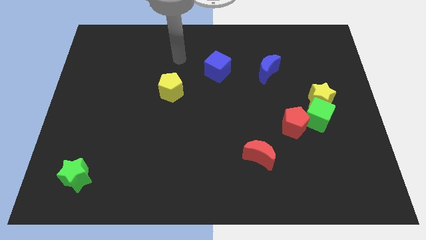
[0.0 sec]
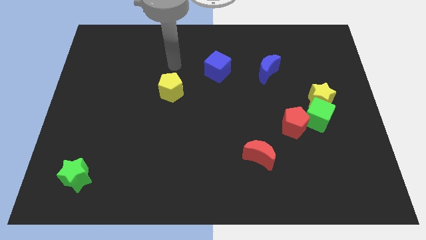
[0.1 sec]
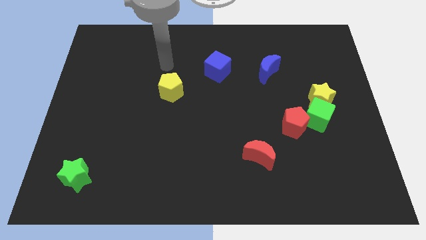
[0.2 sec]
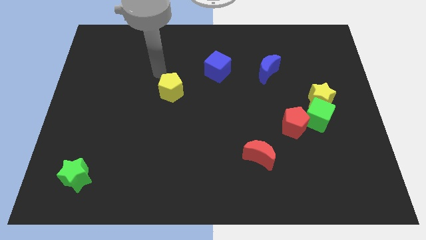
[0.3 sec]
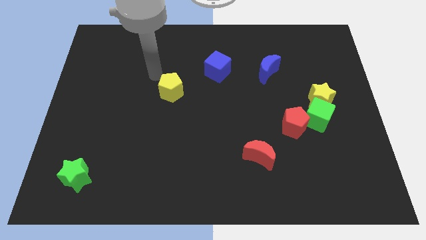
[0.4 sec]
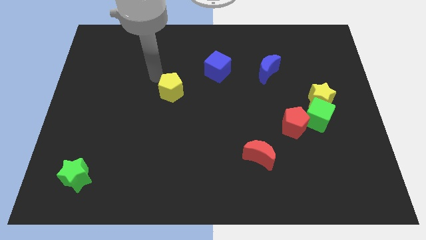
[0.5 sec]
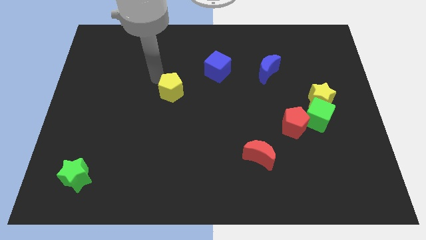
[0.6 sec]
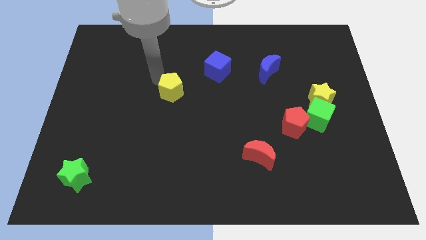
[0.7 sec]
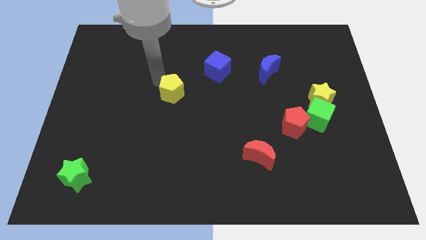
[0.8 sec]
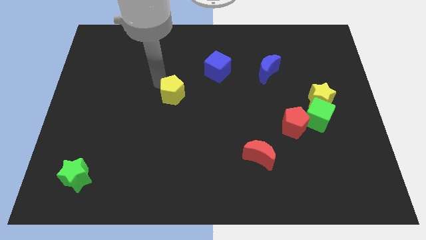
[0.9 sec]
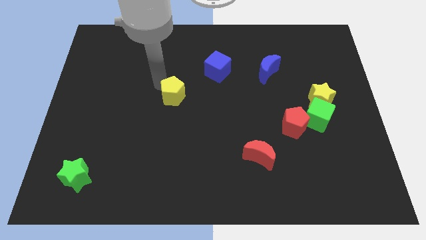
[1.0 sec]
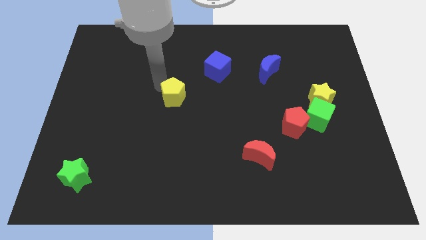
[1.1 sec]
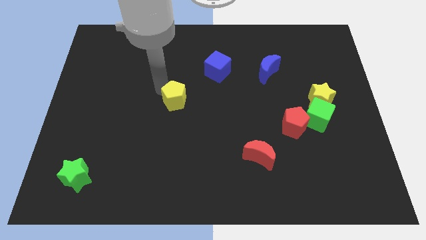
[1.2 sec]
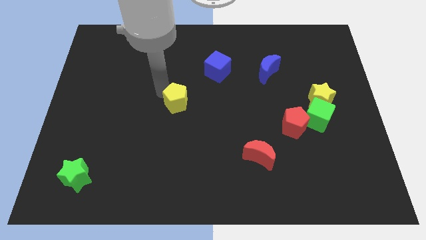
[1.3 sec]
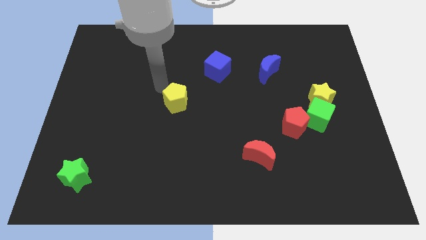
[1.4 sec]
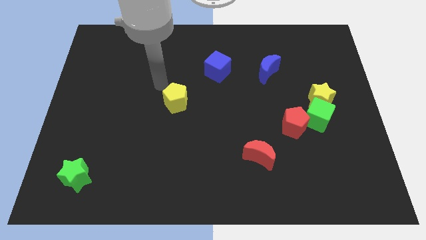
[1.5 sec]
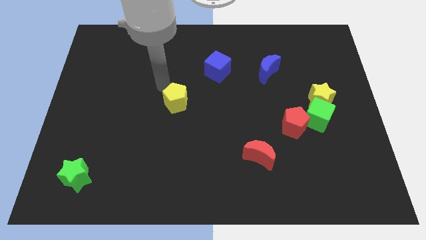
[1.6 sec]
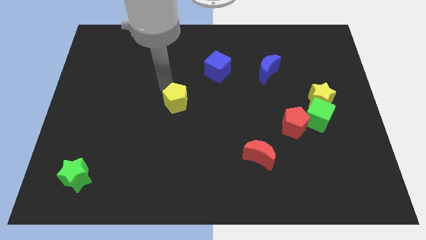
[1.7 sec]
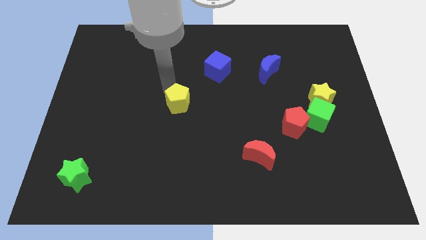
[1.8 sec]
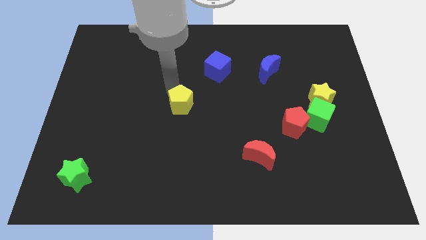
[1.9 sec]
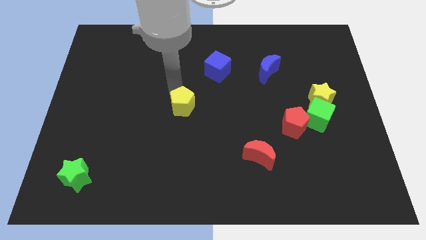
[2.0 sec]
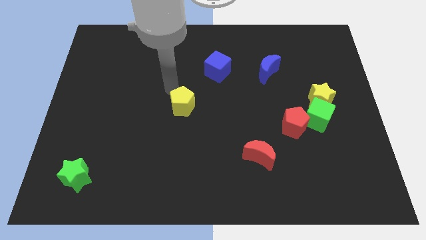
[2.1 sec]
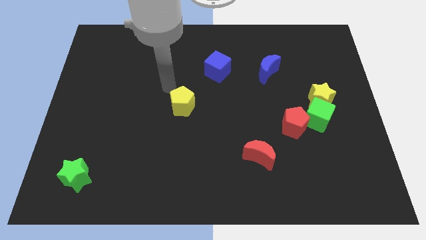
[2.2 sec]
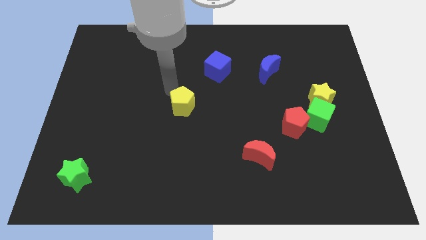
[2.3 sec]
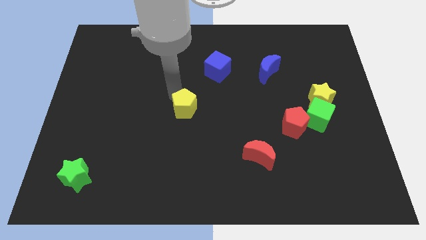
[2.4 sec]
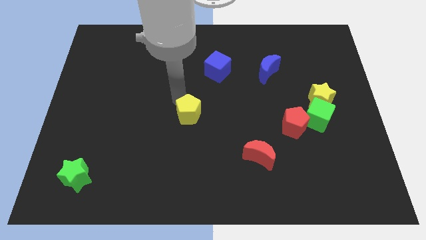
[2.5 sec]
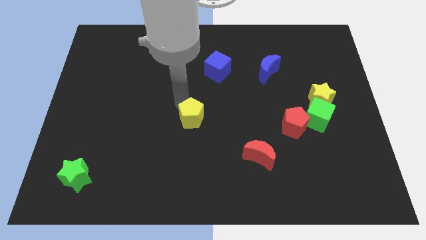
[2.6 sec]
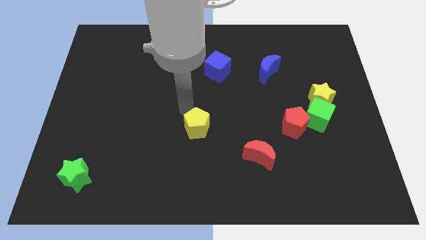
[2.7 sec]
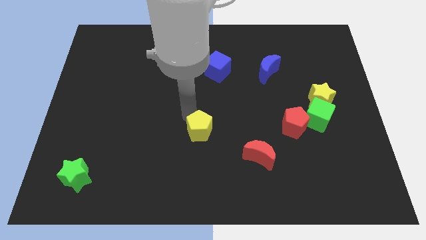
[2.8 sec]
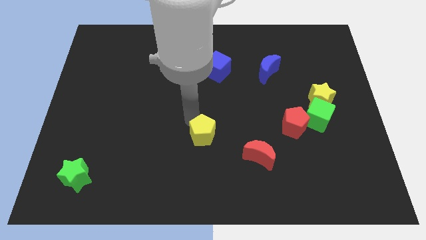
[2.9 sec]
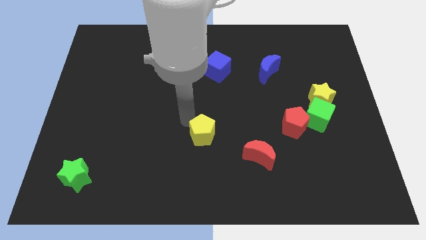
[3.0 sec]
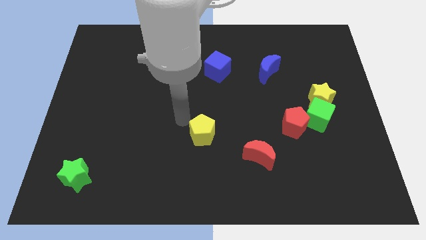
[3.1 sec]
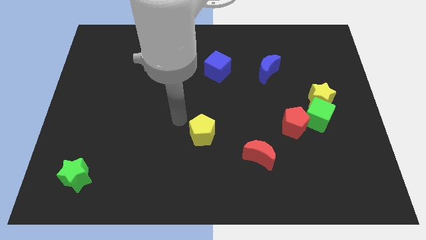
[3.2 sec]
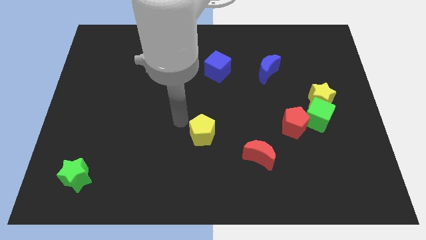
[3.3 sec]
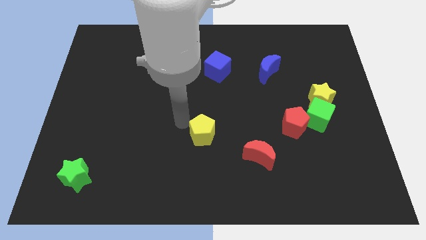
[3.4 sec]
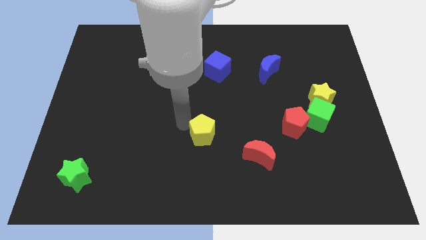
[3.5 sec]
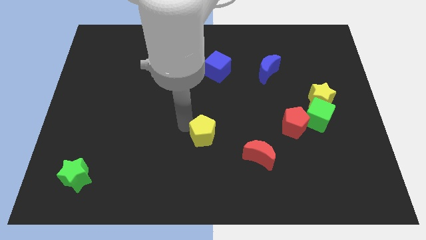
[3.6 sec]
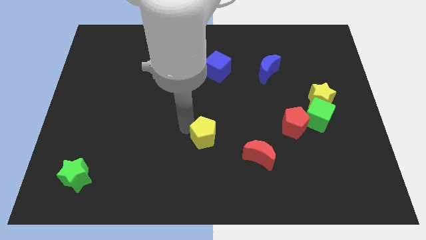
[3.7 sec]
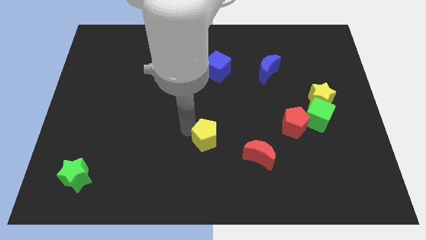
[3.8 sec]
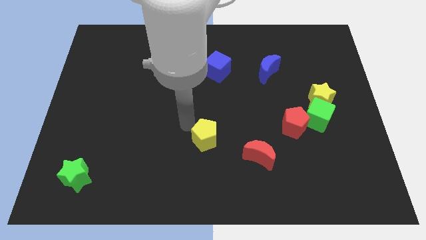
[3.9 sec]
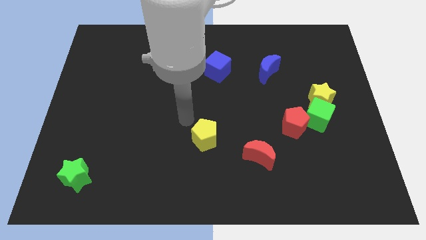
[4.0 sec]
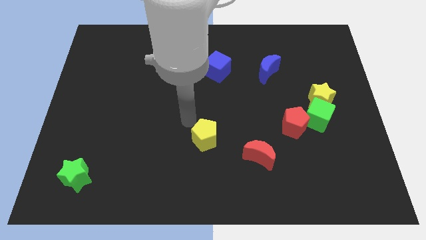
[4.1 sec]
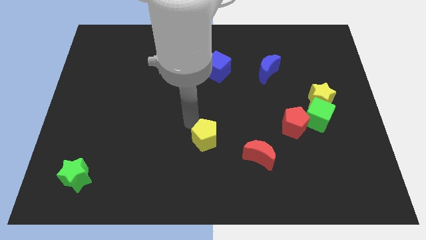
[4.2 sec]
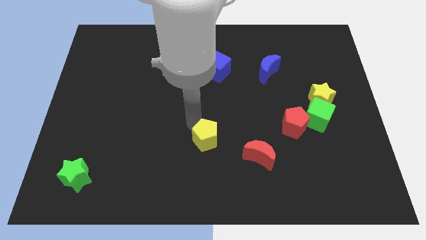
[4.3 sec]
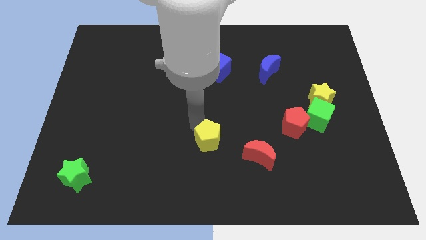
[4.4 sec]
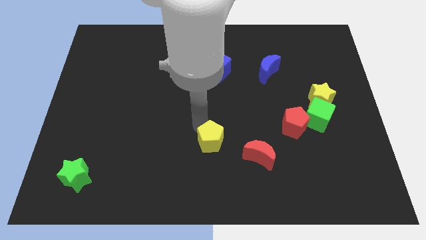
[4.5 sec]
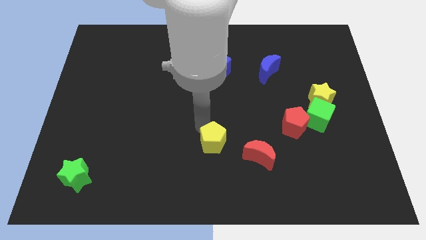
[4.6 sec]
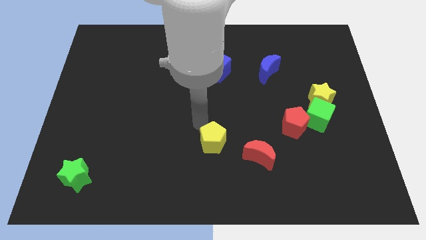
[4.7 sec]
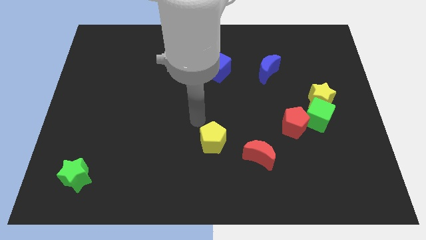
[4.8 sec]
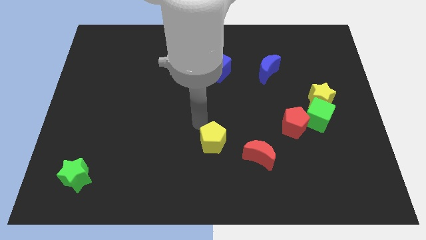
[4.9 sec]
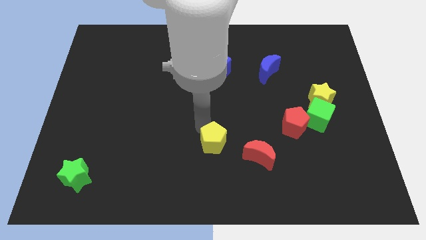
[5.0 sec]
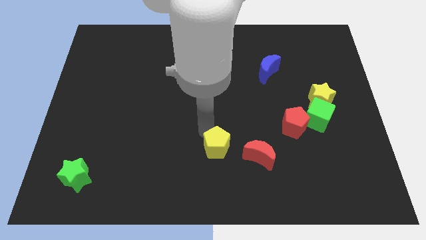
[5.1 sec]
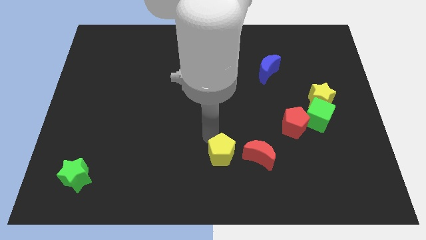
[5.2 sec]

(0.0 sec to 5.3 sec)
slide the yellow pentagon down and then to the right

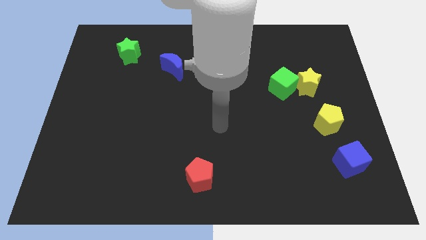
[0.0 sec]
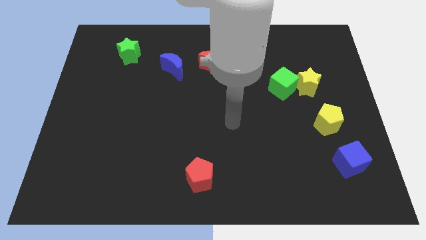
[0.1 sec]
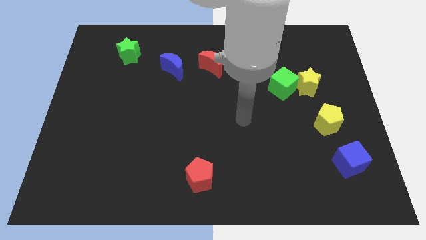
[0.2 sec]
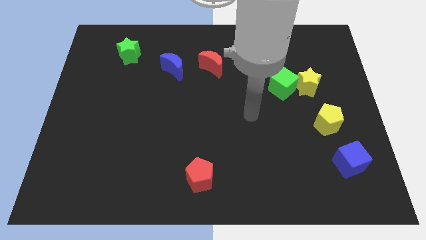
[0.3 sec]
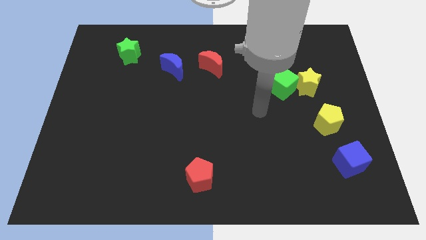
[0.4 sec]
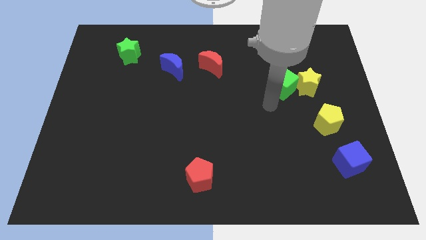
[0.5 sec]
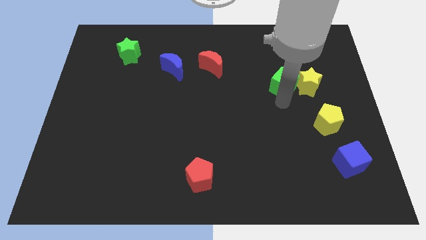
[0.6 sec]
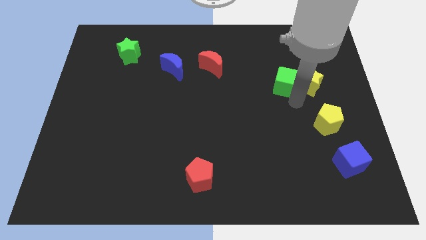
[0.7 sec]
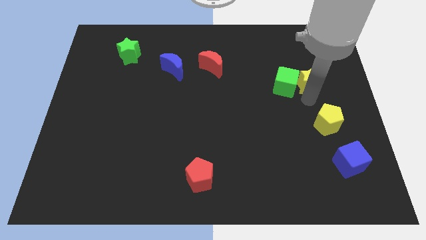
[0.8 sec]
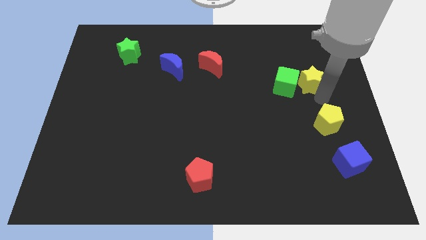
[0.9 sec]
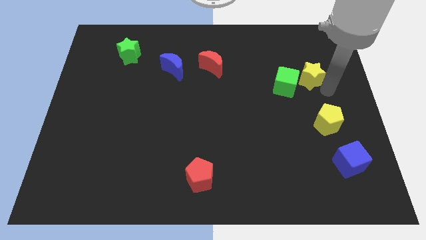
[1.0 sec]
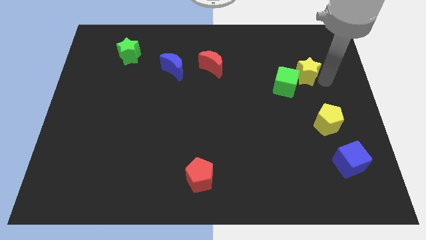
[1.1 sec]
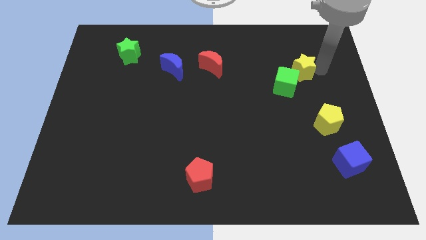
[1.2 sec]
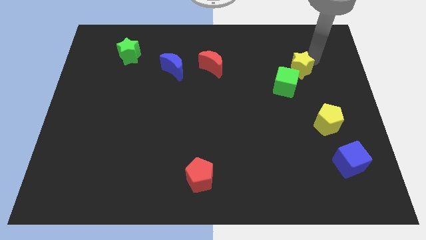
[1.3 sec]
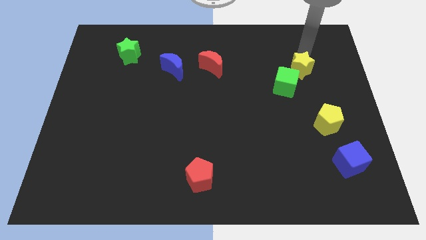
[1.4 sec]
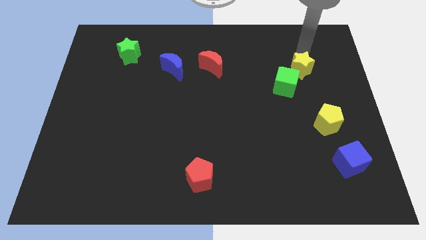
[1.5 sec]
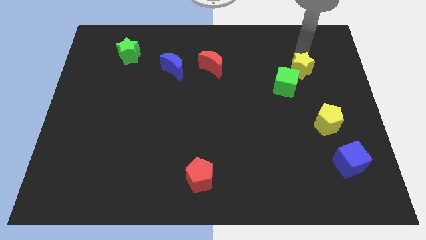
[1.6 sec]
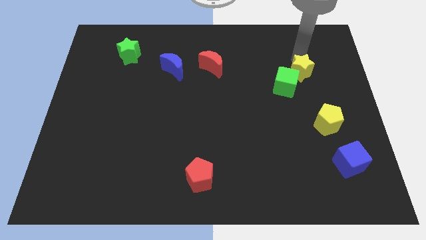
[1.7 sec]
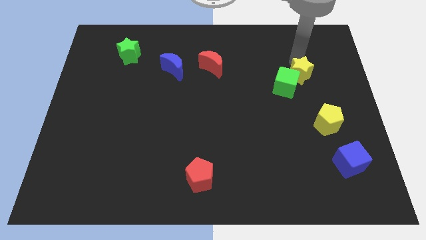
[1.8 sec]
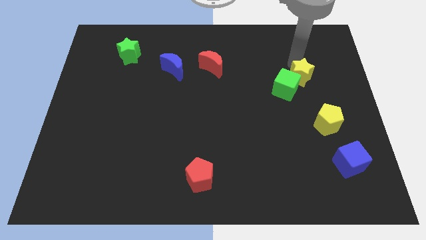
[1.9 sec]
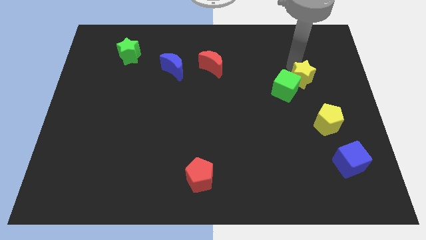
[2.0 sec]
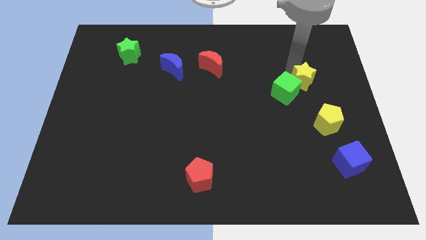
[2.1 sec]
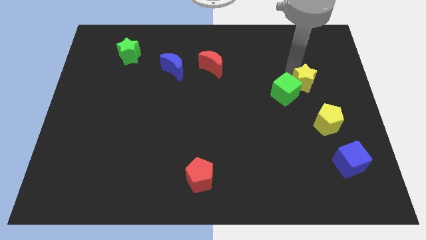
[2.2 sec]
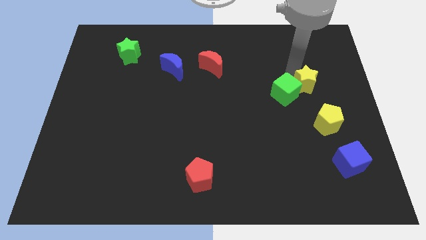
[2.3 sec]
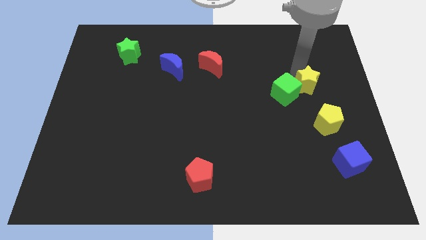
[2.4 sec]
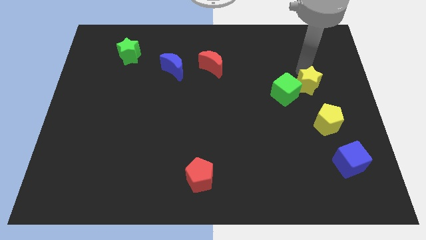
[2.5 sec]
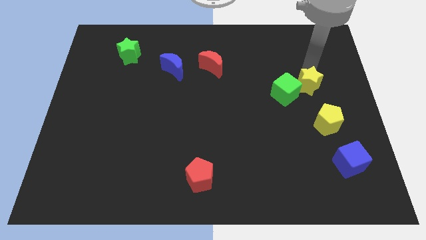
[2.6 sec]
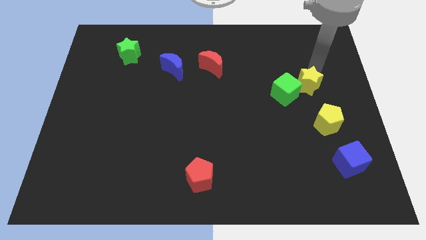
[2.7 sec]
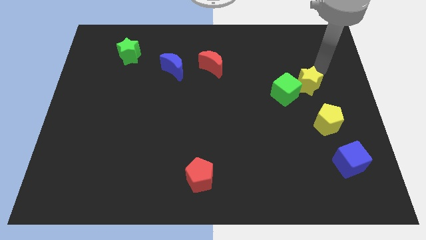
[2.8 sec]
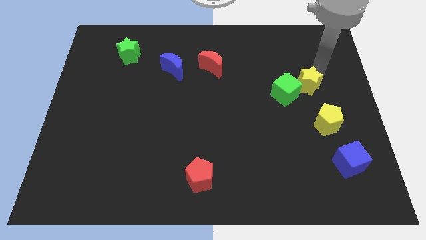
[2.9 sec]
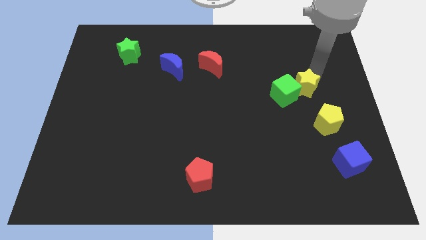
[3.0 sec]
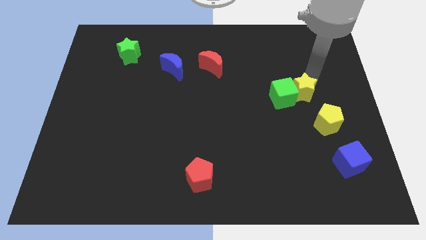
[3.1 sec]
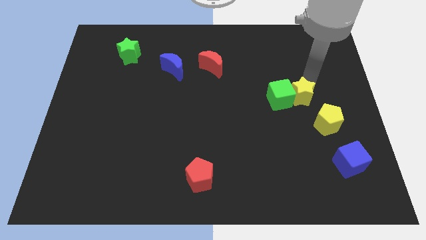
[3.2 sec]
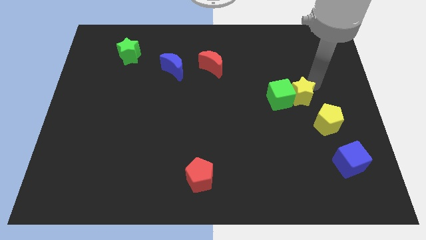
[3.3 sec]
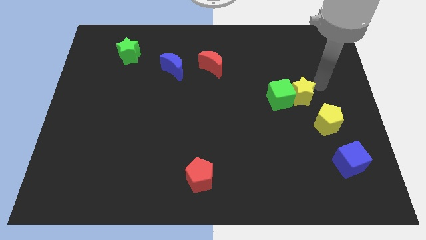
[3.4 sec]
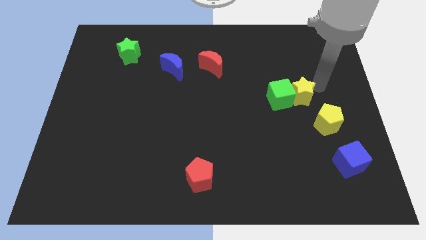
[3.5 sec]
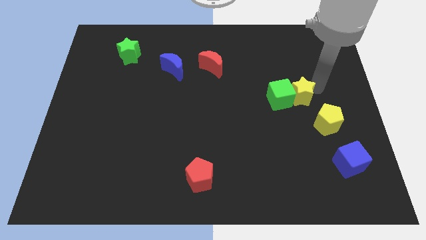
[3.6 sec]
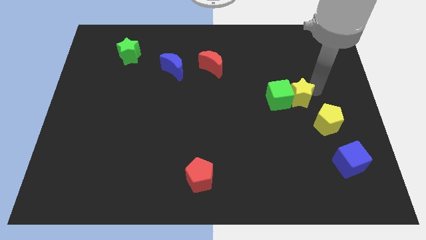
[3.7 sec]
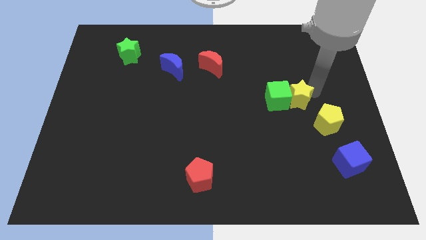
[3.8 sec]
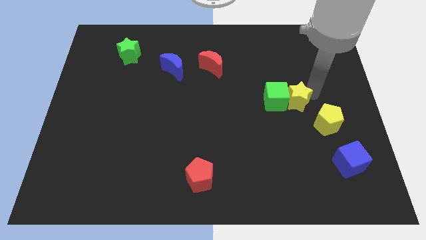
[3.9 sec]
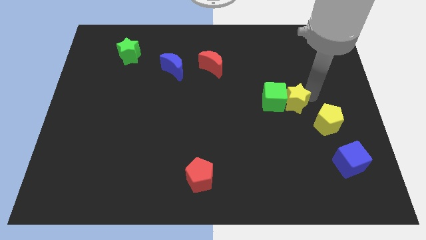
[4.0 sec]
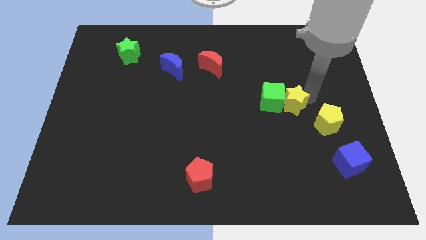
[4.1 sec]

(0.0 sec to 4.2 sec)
slightly move the yellow star downwards and to the left diagonally
